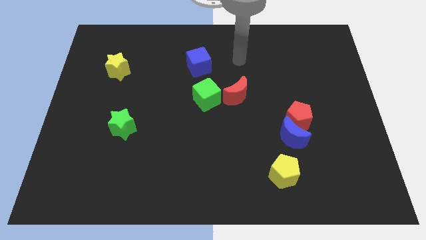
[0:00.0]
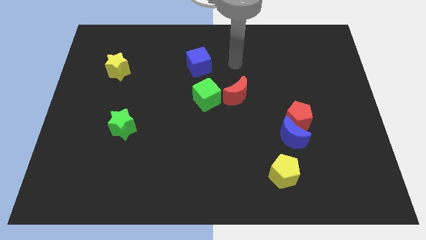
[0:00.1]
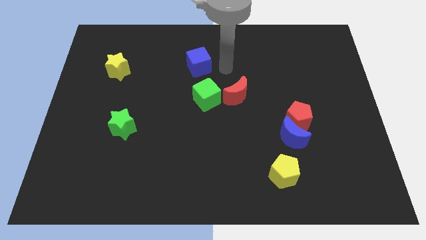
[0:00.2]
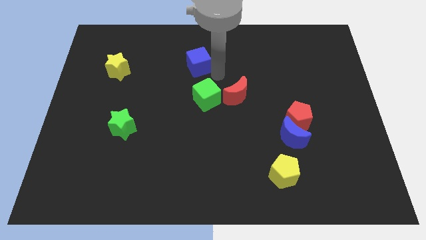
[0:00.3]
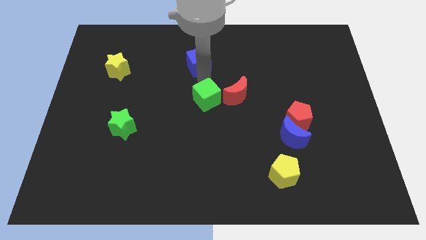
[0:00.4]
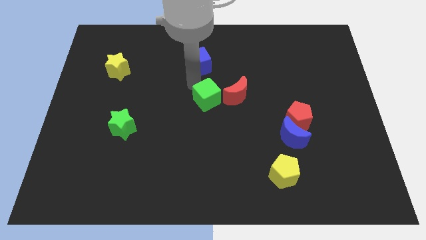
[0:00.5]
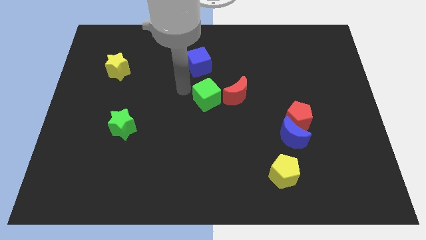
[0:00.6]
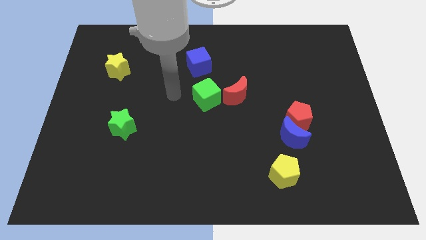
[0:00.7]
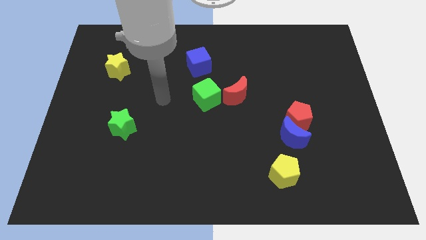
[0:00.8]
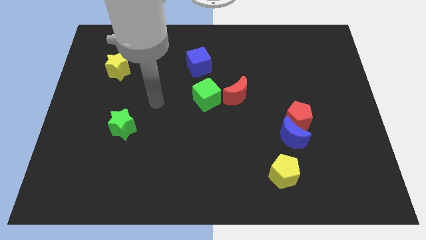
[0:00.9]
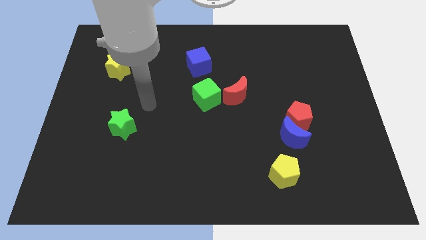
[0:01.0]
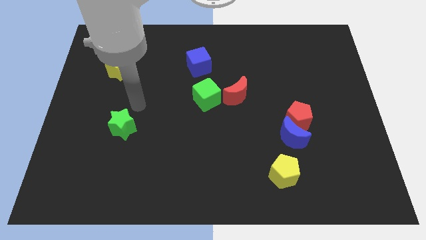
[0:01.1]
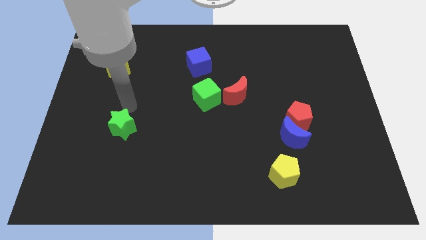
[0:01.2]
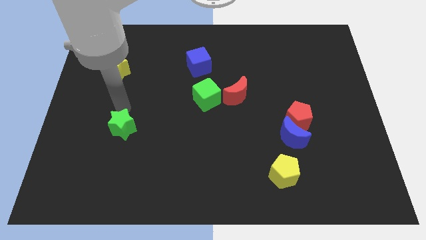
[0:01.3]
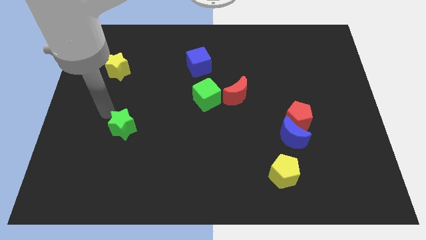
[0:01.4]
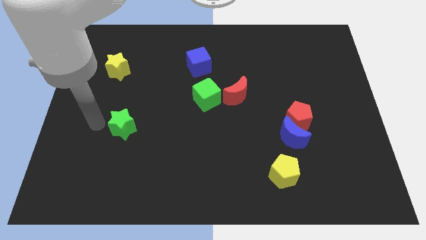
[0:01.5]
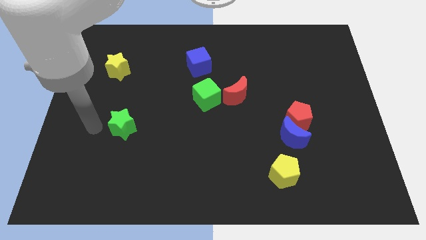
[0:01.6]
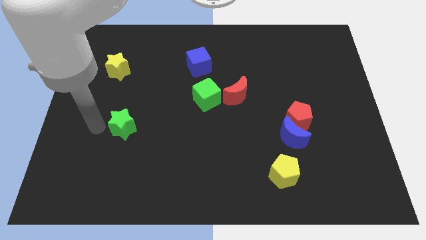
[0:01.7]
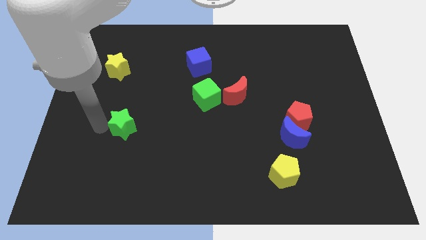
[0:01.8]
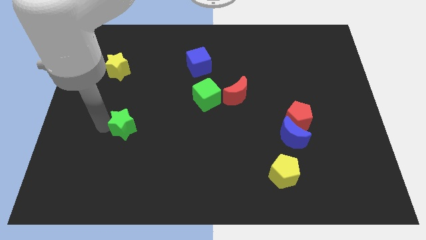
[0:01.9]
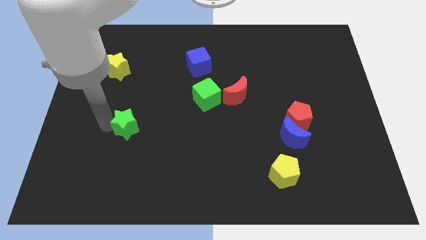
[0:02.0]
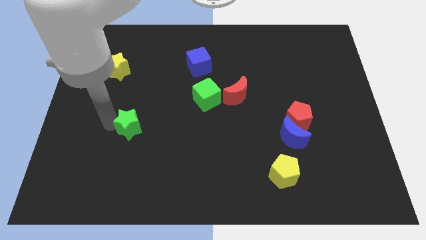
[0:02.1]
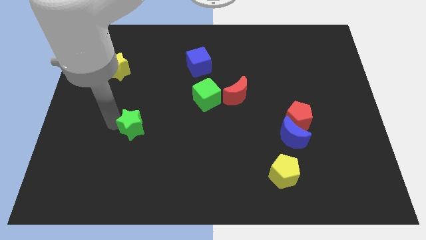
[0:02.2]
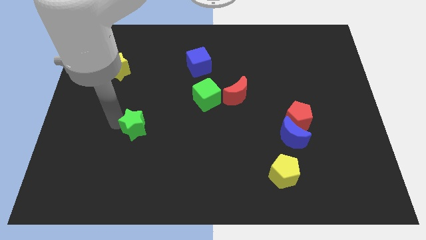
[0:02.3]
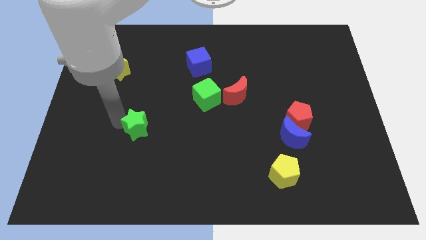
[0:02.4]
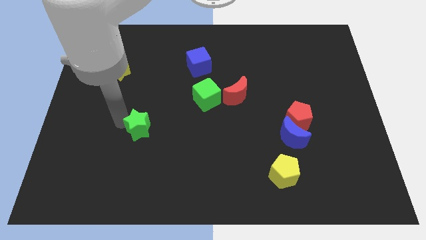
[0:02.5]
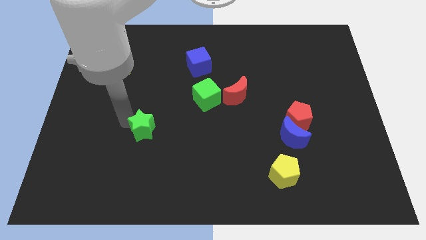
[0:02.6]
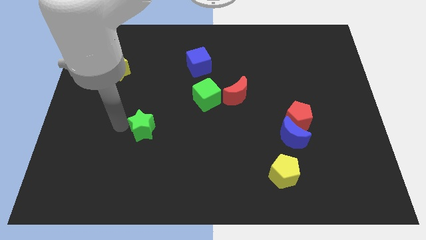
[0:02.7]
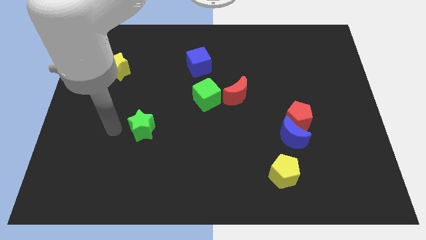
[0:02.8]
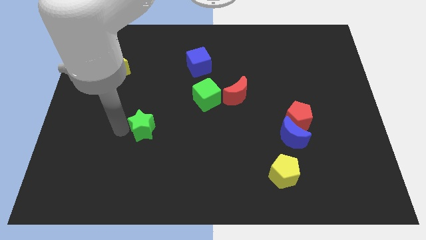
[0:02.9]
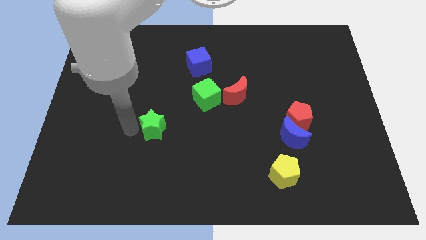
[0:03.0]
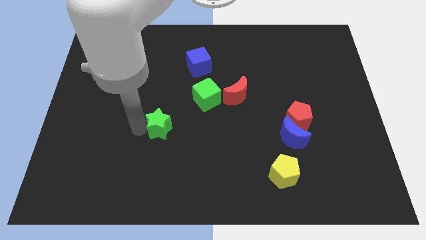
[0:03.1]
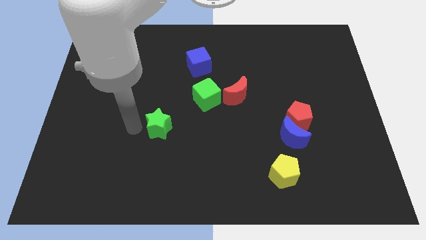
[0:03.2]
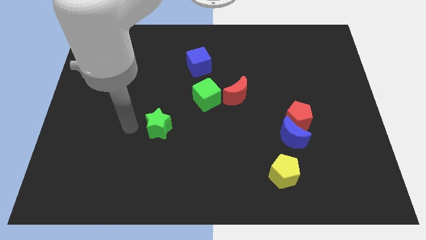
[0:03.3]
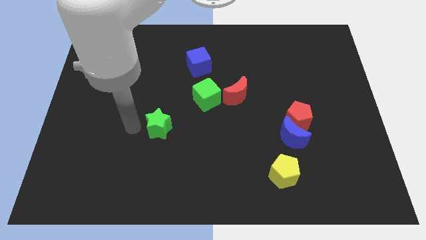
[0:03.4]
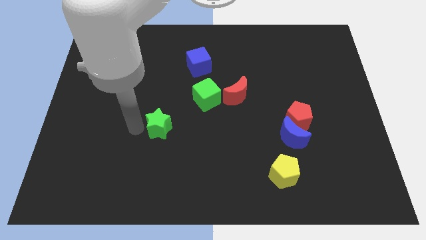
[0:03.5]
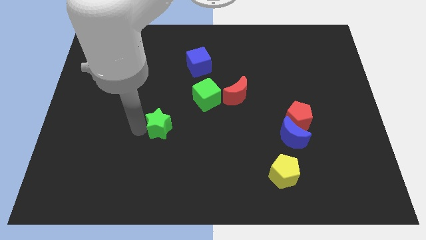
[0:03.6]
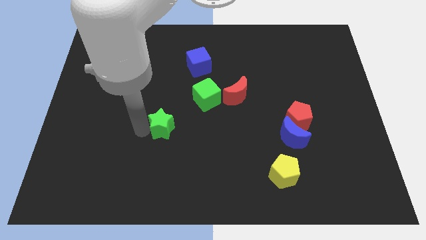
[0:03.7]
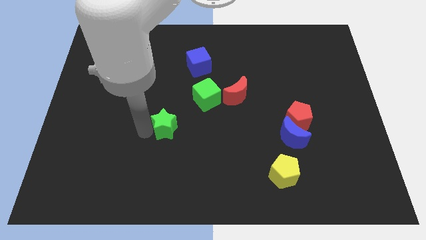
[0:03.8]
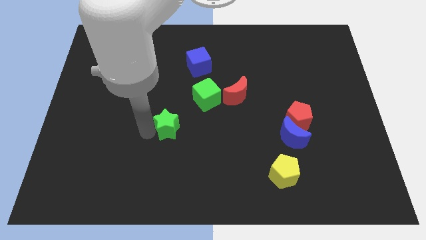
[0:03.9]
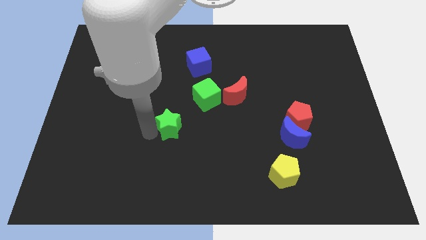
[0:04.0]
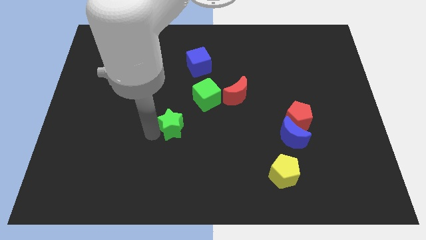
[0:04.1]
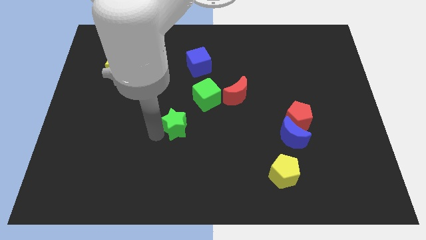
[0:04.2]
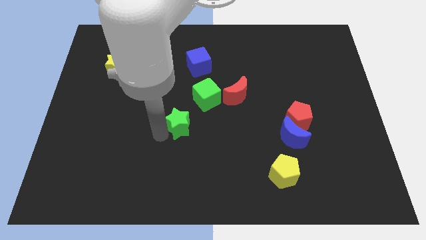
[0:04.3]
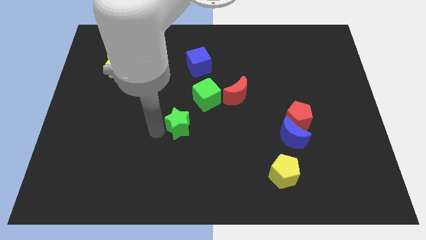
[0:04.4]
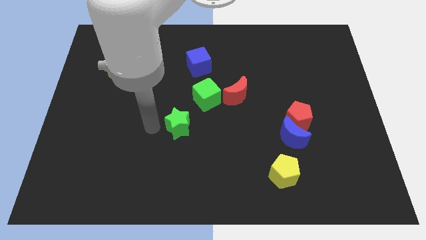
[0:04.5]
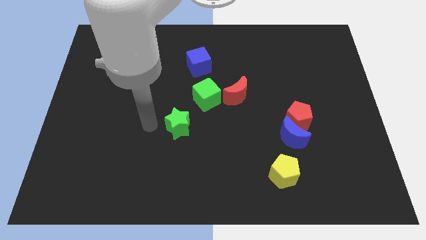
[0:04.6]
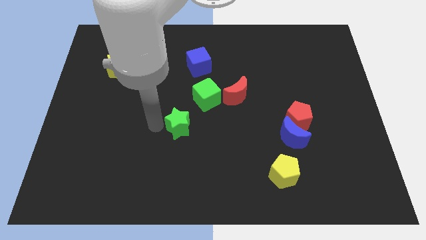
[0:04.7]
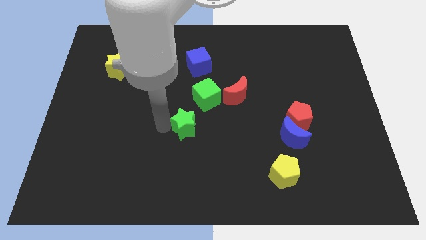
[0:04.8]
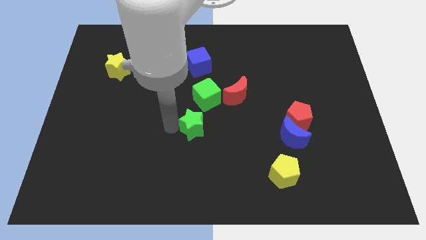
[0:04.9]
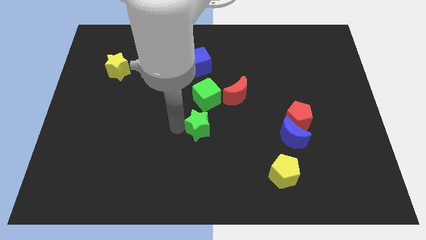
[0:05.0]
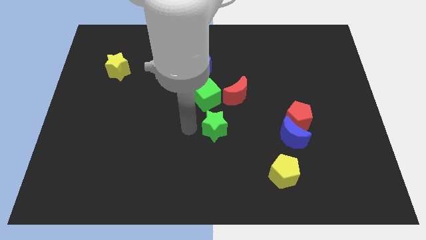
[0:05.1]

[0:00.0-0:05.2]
slide the green star right

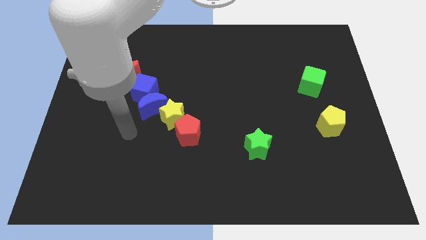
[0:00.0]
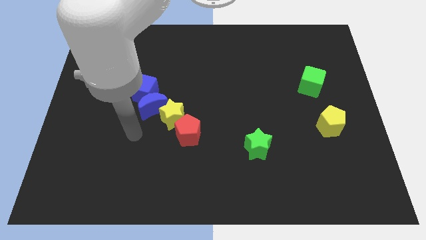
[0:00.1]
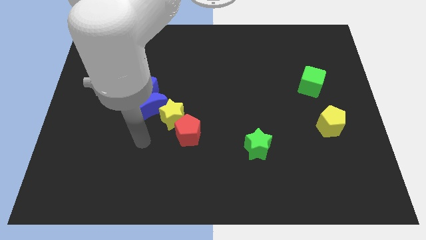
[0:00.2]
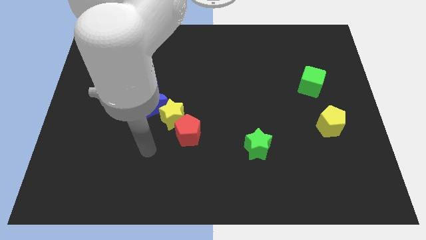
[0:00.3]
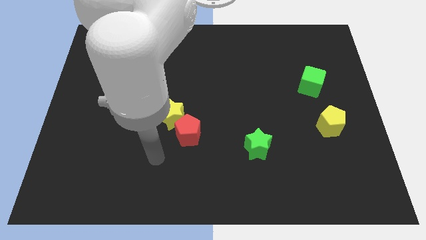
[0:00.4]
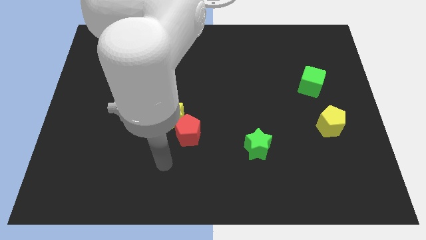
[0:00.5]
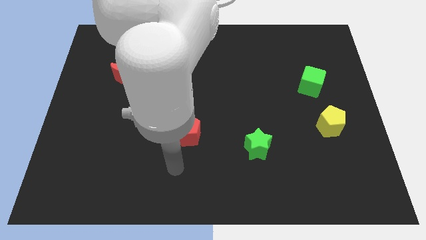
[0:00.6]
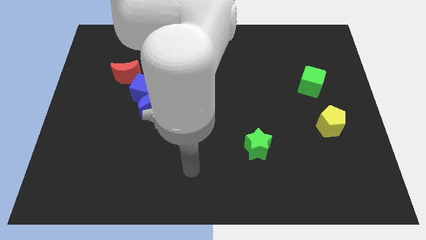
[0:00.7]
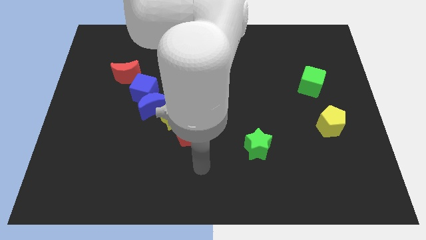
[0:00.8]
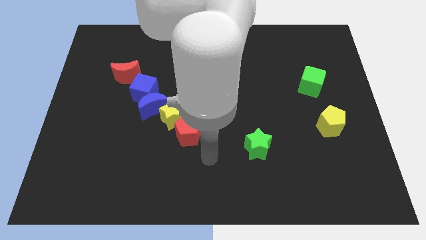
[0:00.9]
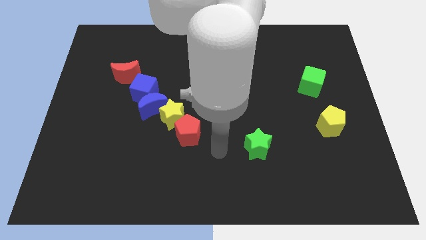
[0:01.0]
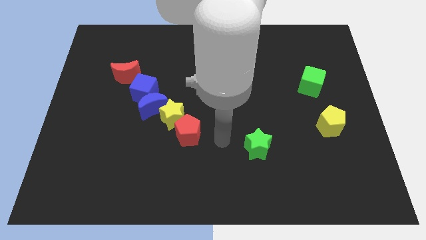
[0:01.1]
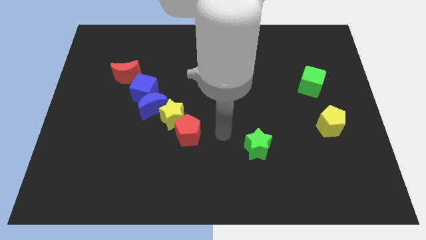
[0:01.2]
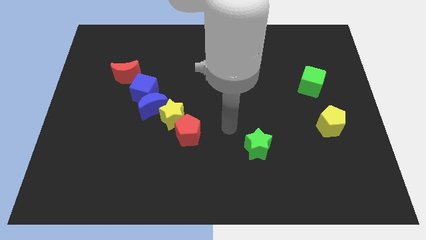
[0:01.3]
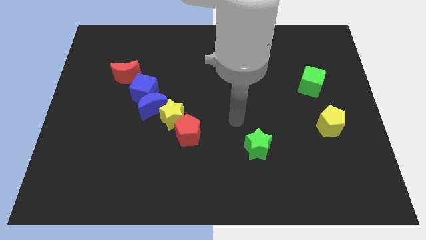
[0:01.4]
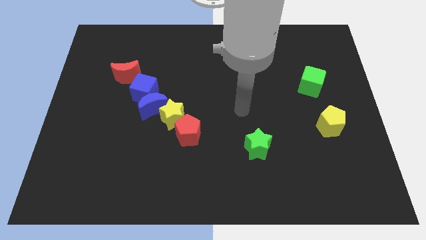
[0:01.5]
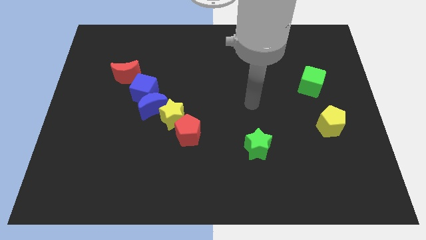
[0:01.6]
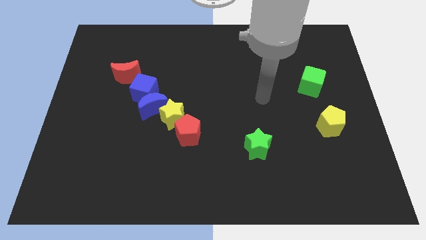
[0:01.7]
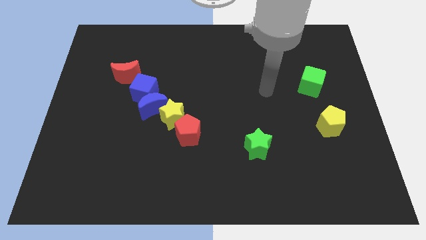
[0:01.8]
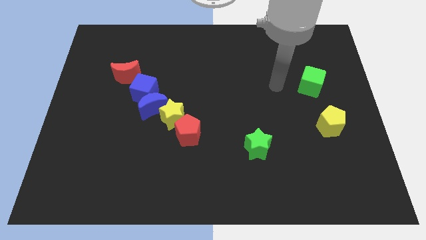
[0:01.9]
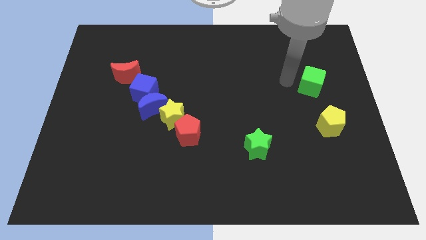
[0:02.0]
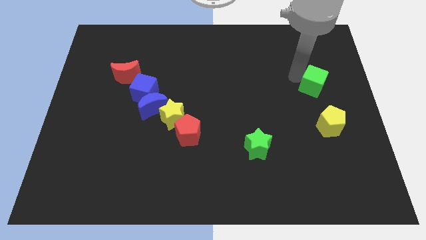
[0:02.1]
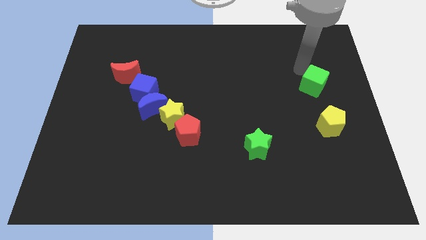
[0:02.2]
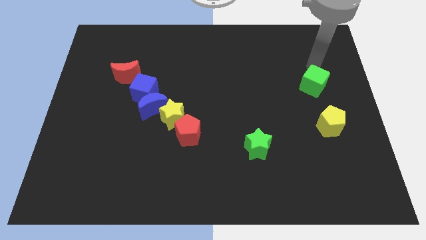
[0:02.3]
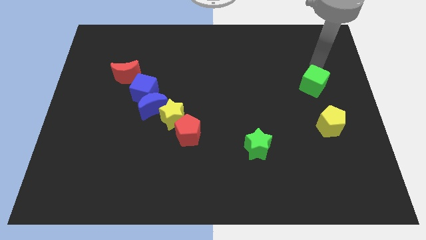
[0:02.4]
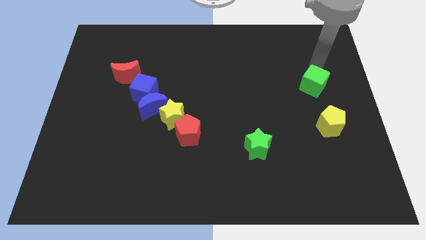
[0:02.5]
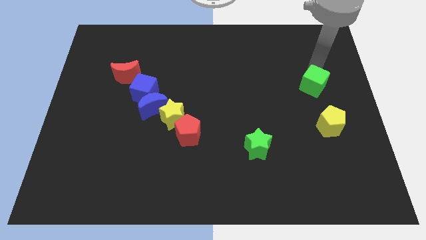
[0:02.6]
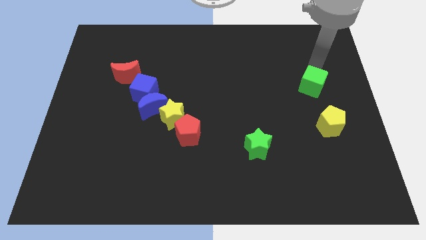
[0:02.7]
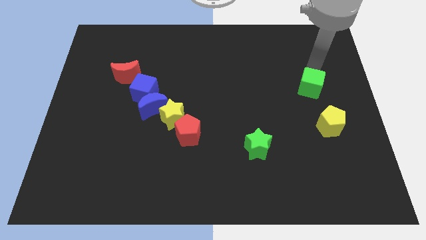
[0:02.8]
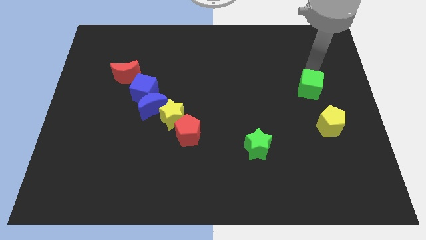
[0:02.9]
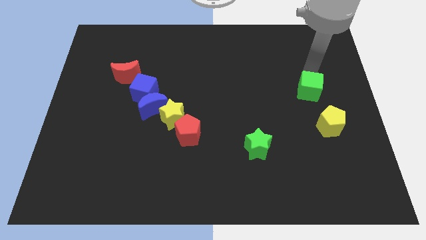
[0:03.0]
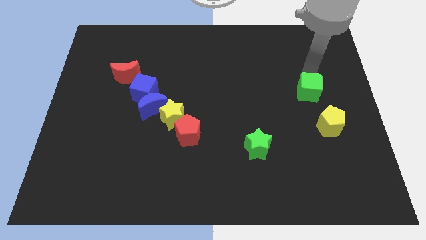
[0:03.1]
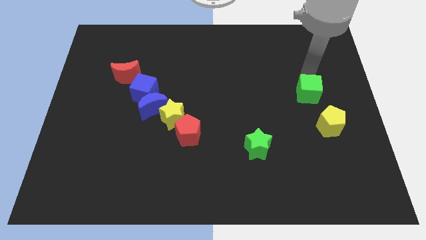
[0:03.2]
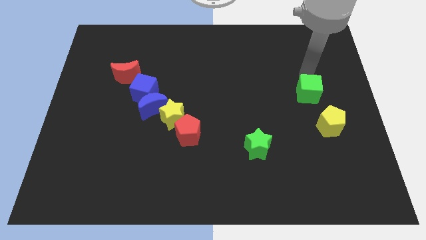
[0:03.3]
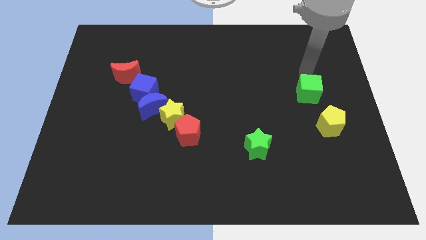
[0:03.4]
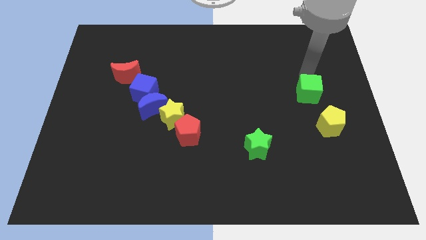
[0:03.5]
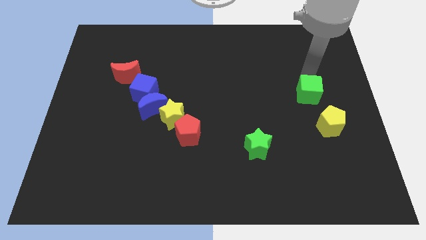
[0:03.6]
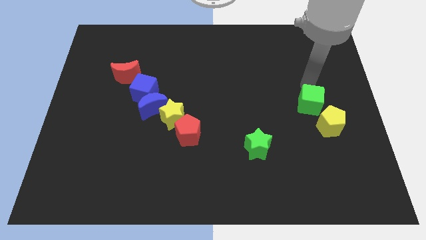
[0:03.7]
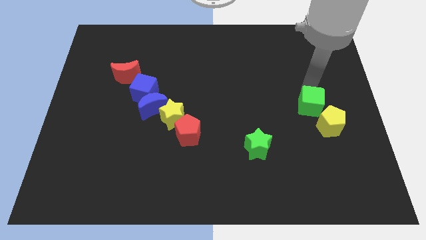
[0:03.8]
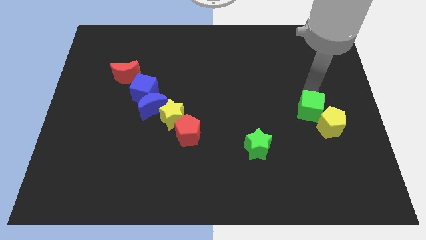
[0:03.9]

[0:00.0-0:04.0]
move the green cube slightly downwards
